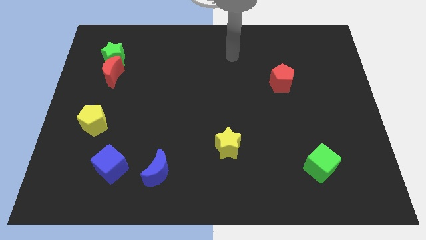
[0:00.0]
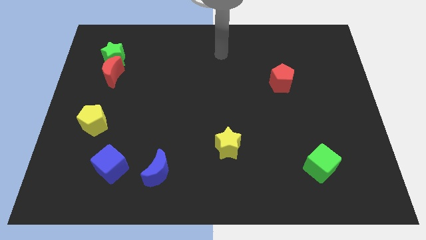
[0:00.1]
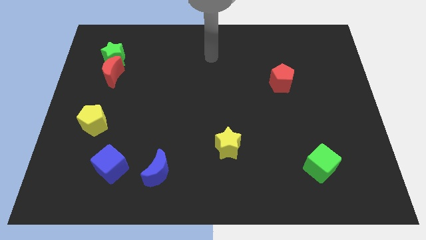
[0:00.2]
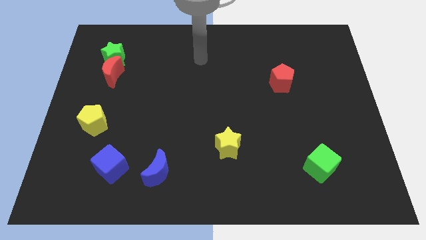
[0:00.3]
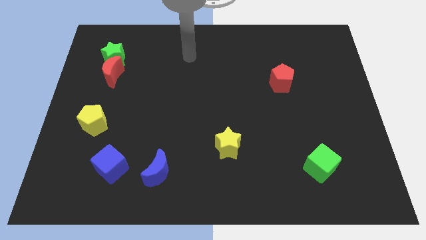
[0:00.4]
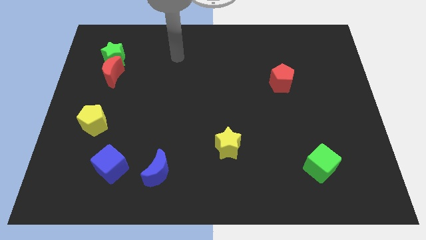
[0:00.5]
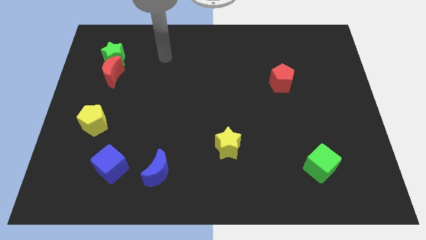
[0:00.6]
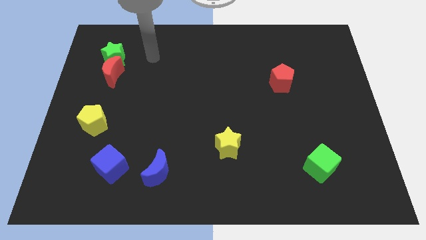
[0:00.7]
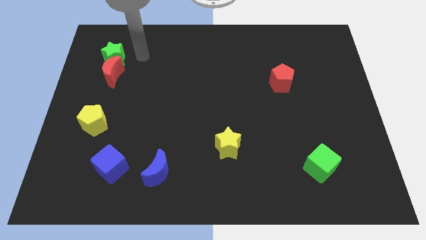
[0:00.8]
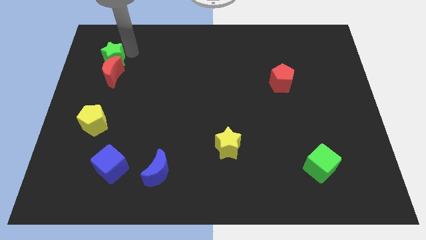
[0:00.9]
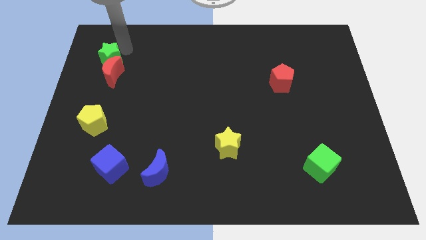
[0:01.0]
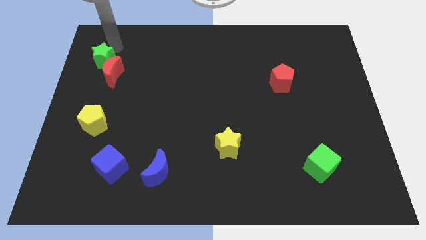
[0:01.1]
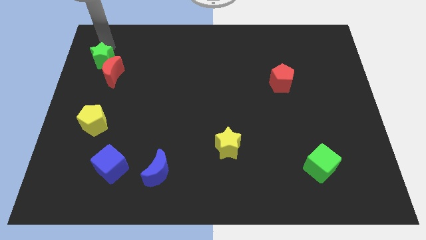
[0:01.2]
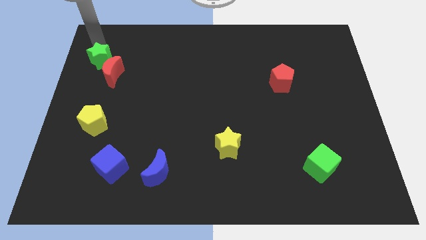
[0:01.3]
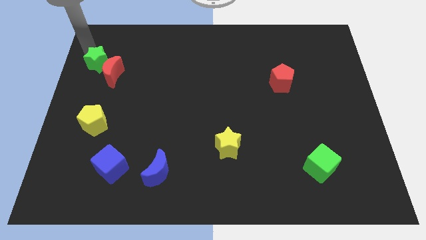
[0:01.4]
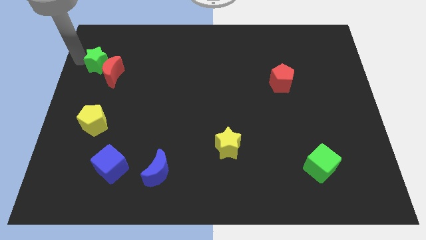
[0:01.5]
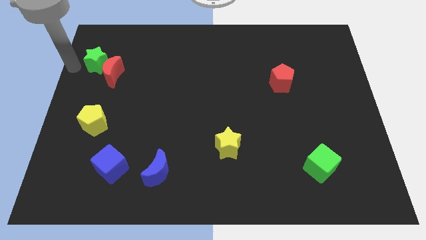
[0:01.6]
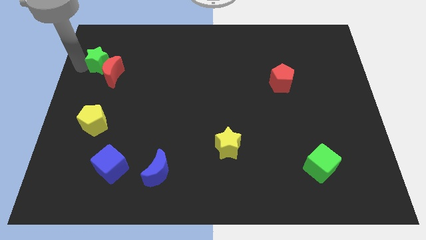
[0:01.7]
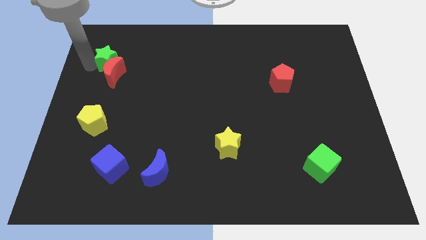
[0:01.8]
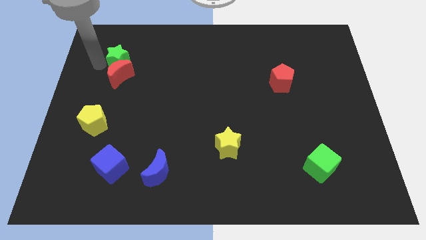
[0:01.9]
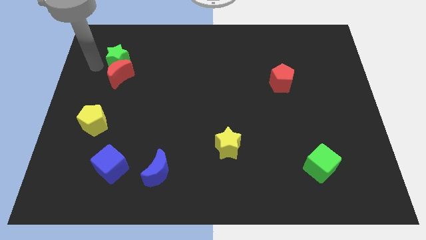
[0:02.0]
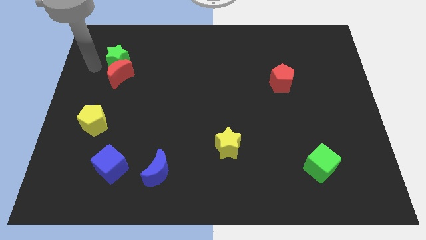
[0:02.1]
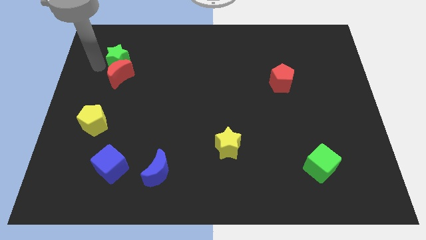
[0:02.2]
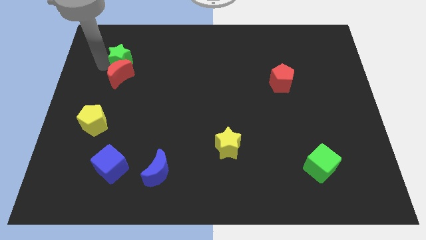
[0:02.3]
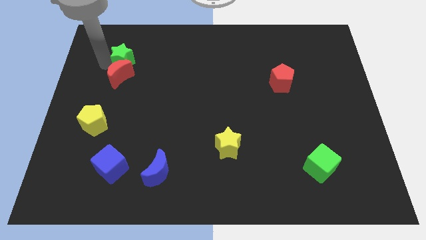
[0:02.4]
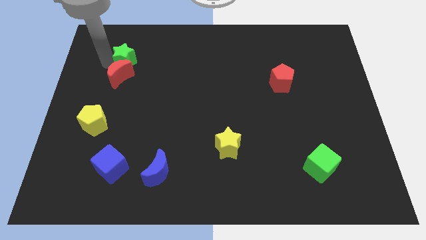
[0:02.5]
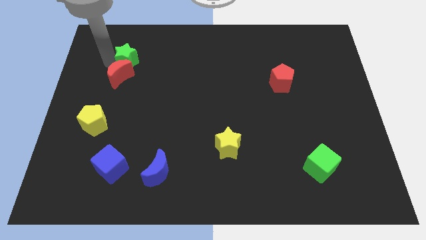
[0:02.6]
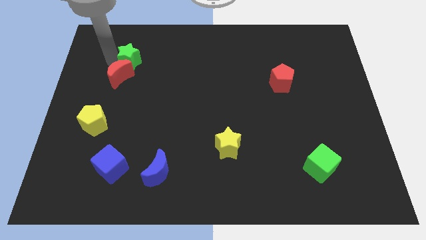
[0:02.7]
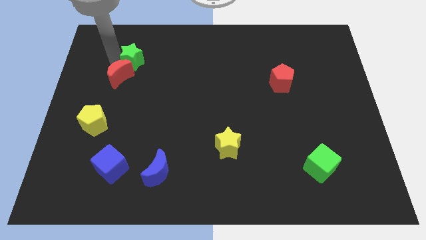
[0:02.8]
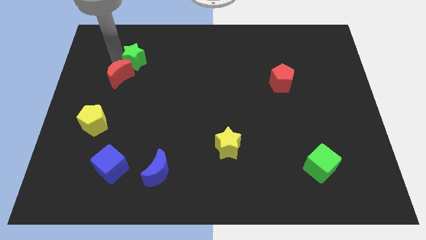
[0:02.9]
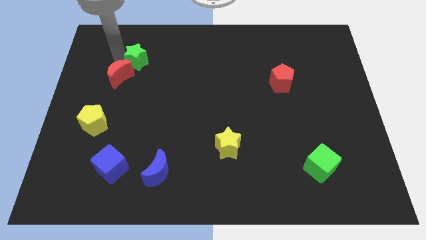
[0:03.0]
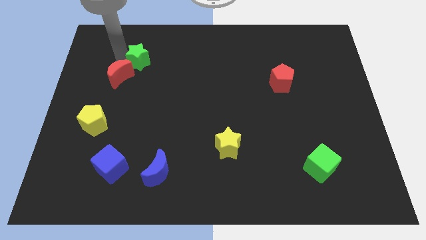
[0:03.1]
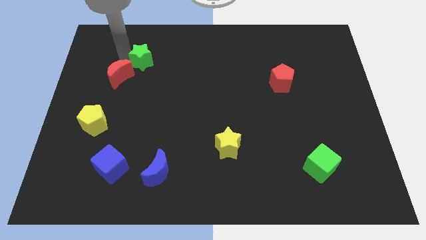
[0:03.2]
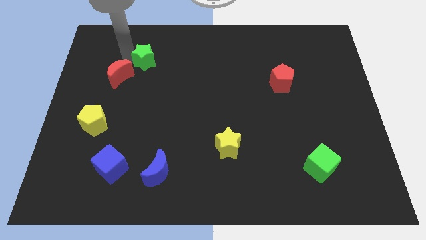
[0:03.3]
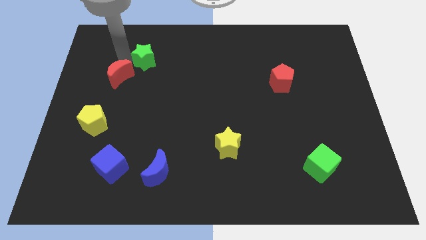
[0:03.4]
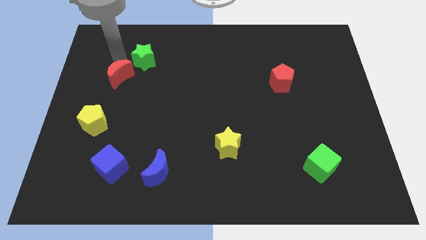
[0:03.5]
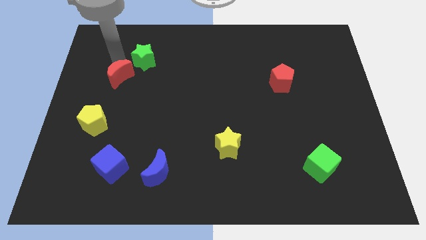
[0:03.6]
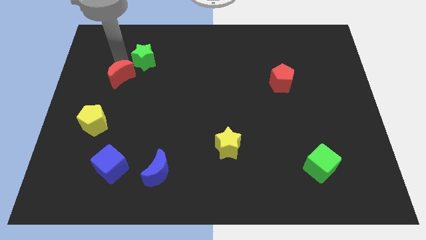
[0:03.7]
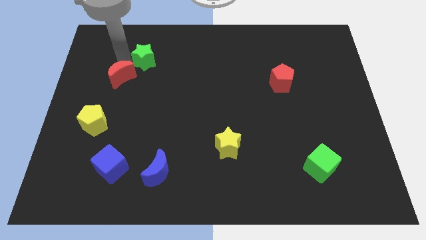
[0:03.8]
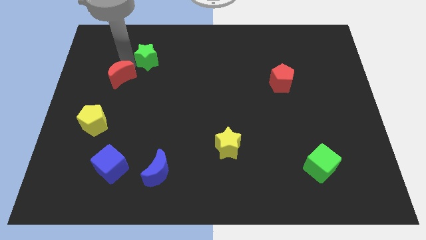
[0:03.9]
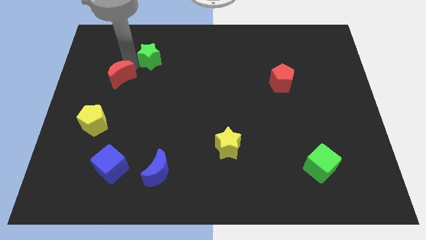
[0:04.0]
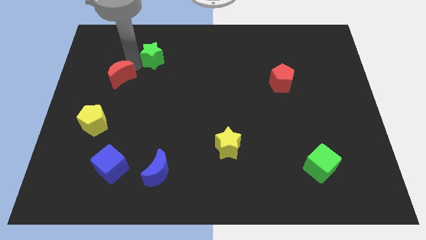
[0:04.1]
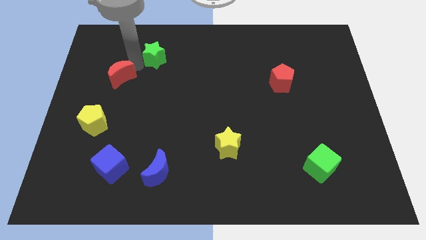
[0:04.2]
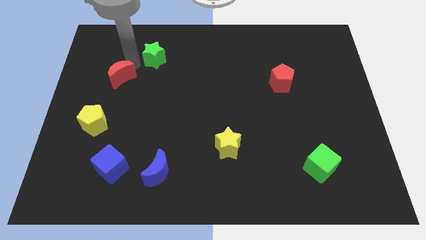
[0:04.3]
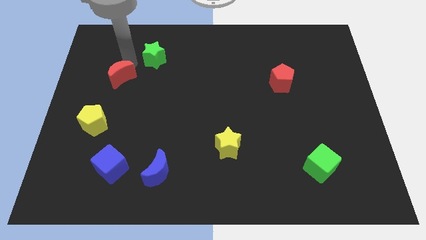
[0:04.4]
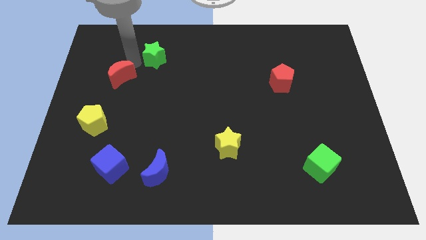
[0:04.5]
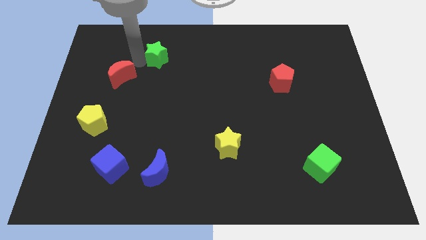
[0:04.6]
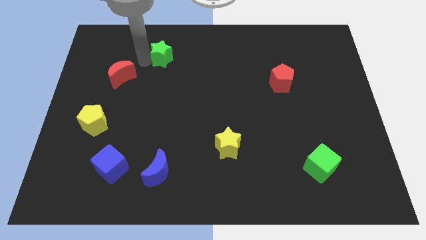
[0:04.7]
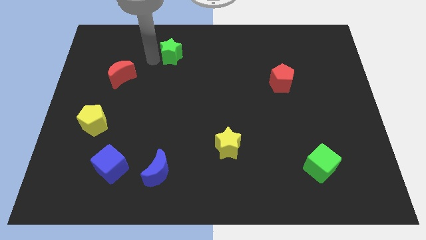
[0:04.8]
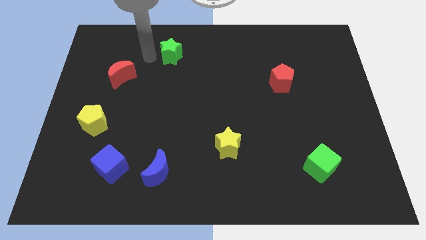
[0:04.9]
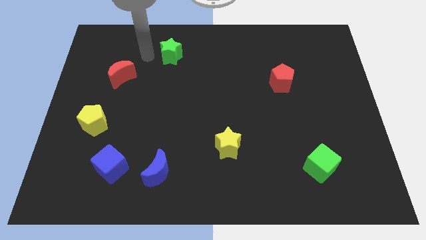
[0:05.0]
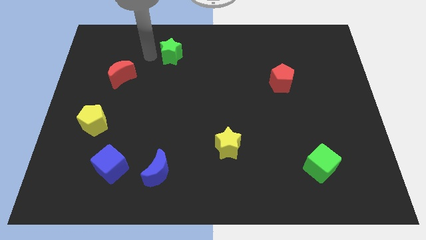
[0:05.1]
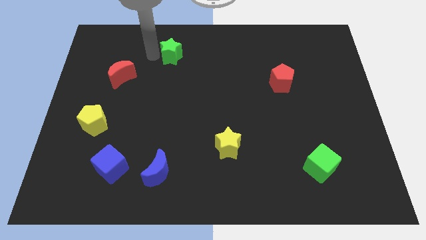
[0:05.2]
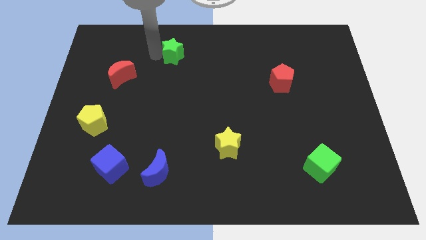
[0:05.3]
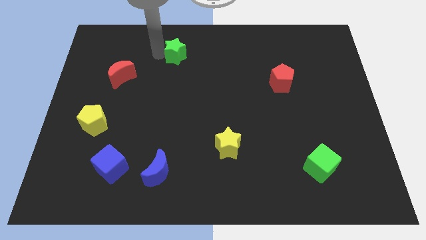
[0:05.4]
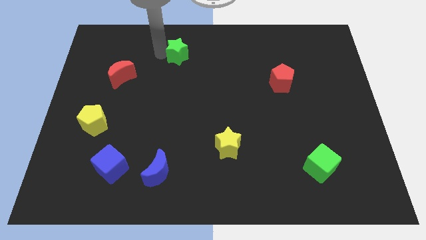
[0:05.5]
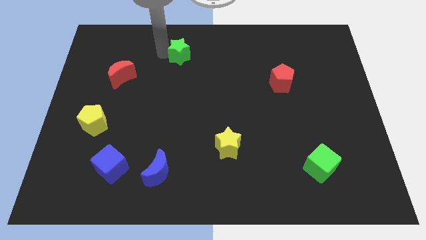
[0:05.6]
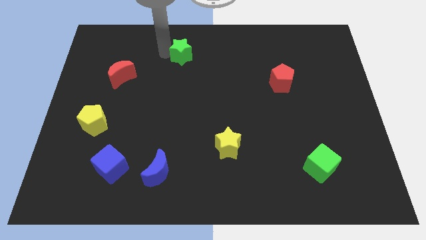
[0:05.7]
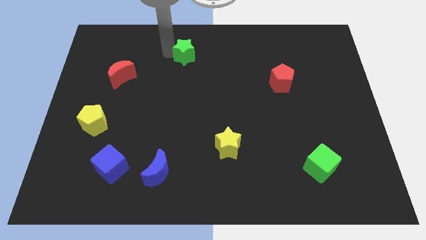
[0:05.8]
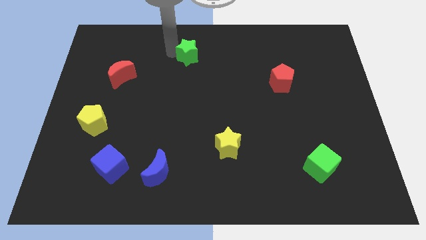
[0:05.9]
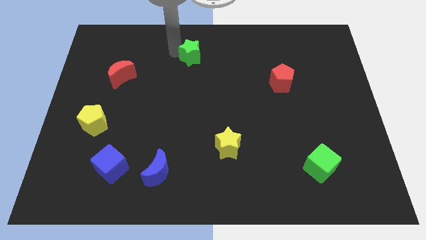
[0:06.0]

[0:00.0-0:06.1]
slide the green star right

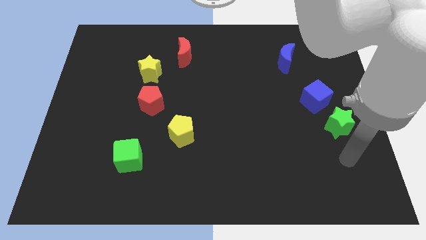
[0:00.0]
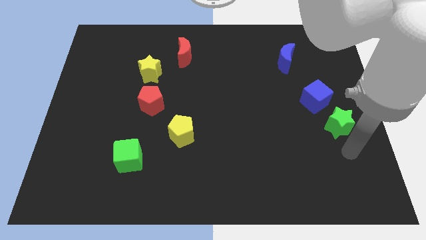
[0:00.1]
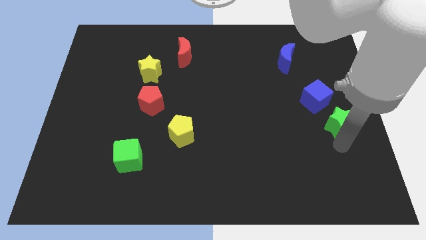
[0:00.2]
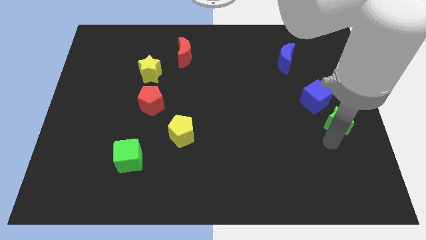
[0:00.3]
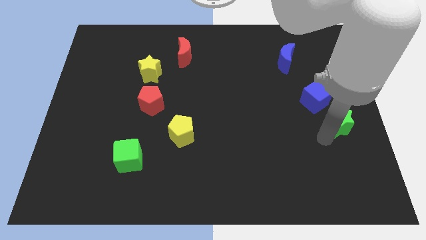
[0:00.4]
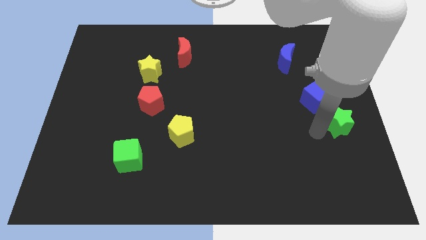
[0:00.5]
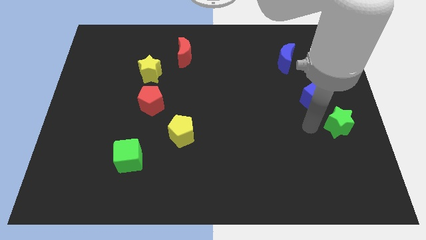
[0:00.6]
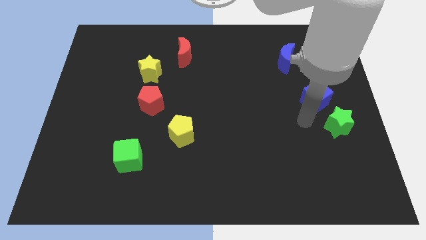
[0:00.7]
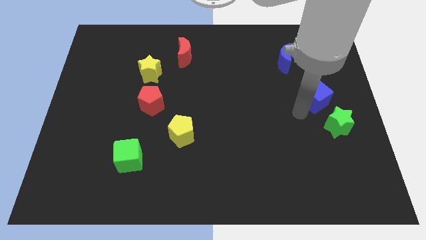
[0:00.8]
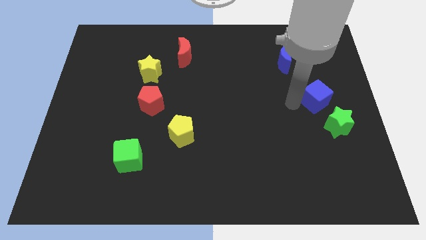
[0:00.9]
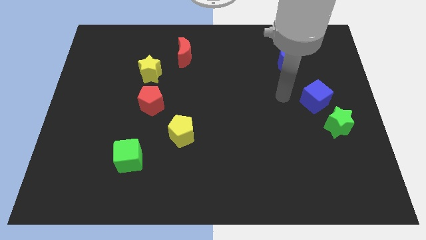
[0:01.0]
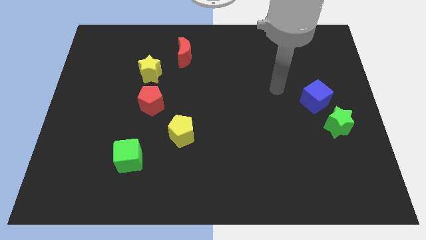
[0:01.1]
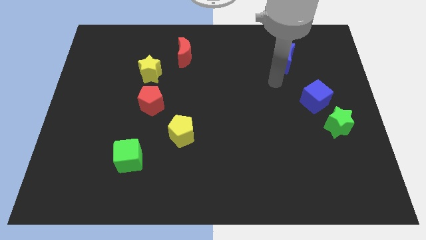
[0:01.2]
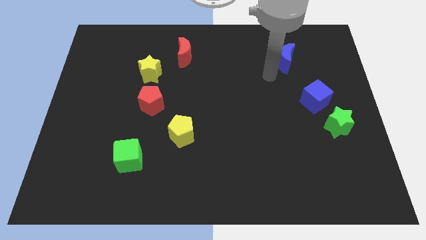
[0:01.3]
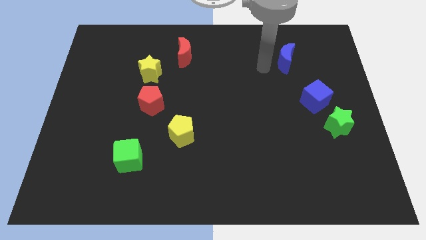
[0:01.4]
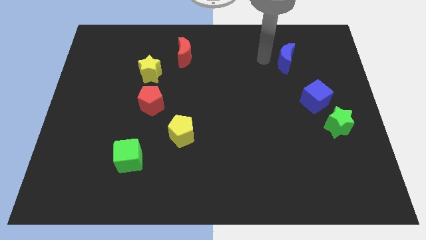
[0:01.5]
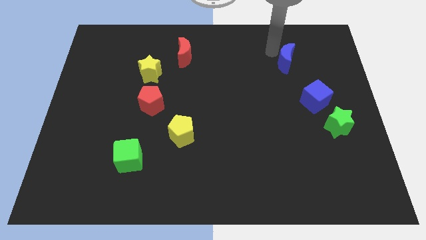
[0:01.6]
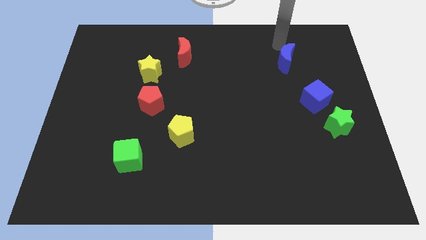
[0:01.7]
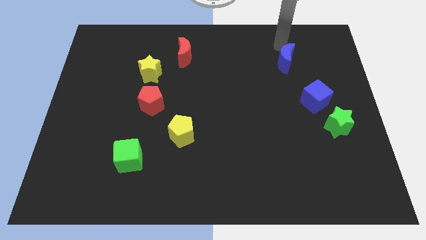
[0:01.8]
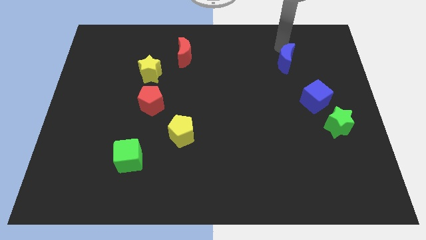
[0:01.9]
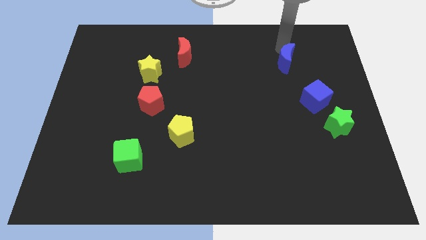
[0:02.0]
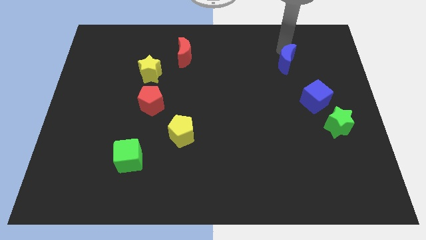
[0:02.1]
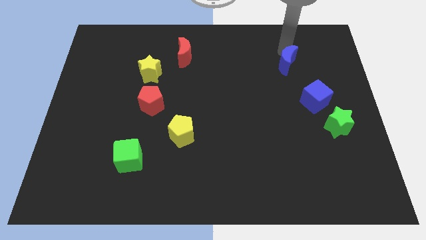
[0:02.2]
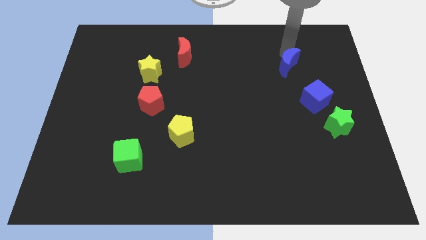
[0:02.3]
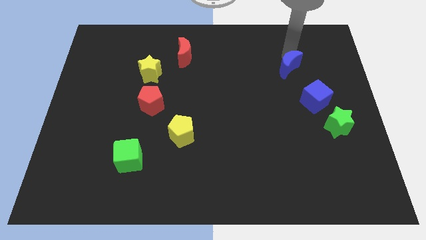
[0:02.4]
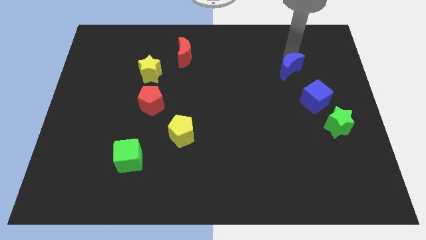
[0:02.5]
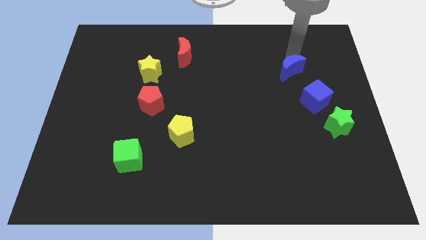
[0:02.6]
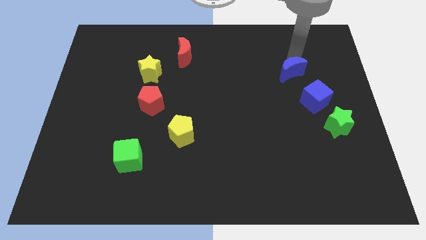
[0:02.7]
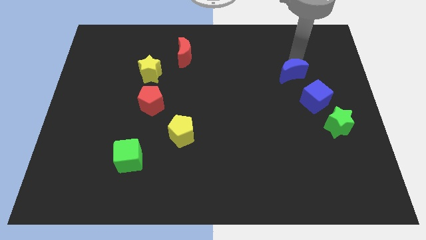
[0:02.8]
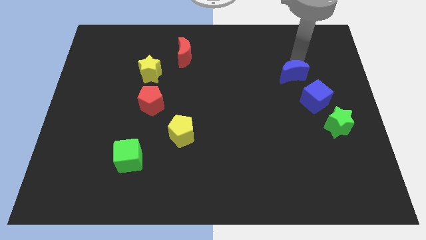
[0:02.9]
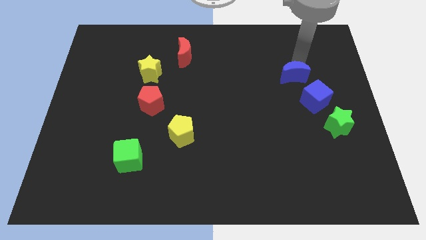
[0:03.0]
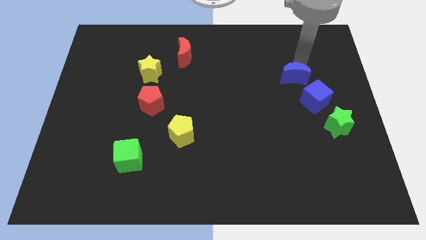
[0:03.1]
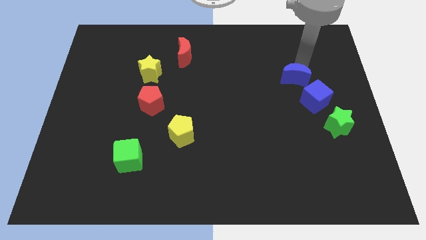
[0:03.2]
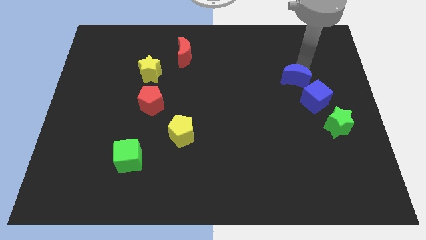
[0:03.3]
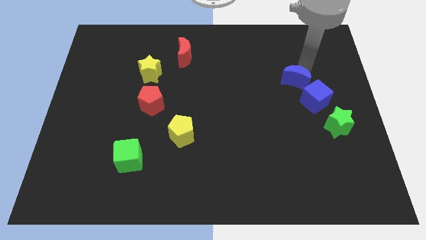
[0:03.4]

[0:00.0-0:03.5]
slightly push the blue moon down
